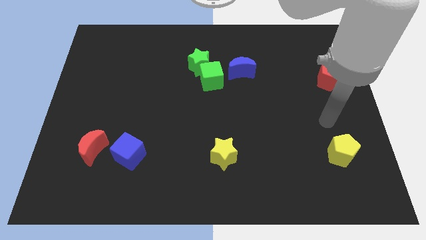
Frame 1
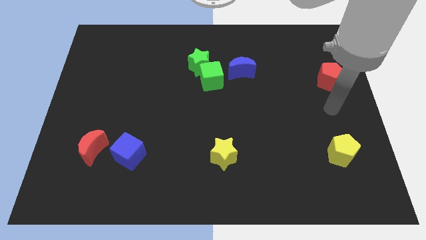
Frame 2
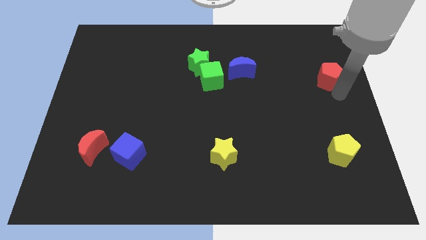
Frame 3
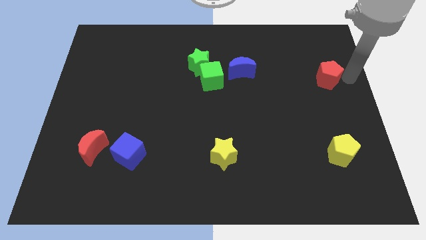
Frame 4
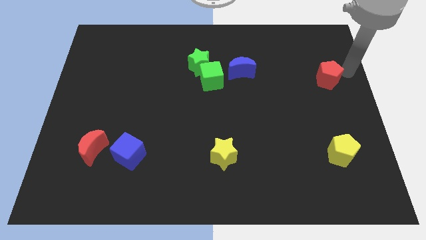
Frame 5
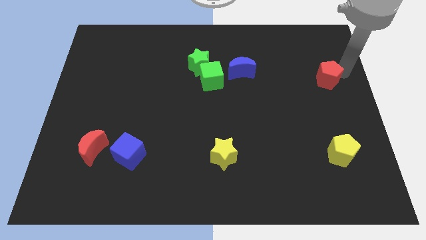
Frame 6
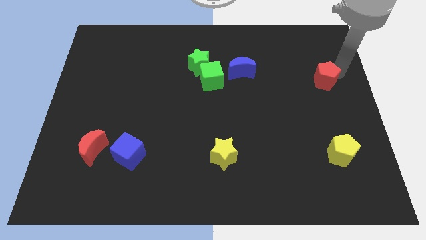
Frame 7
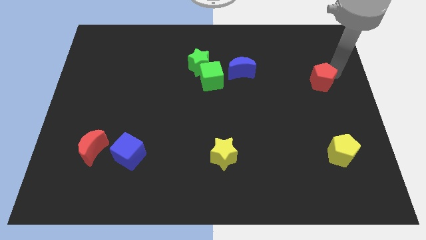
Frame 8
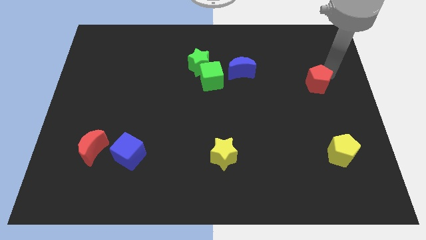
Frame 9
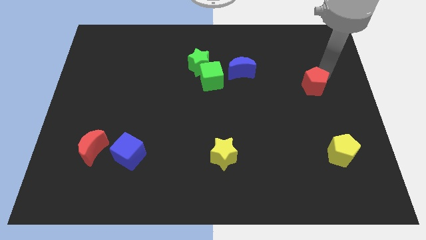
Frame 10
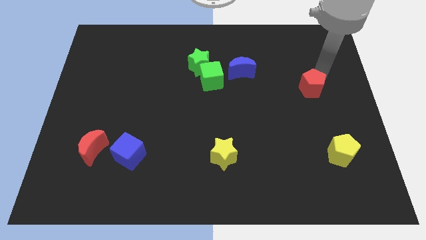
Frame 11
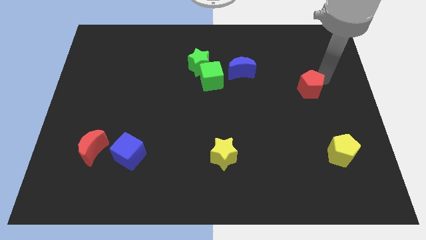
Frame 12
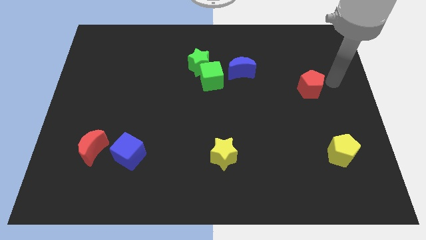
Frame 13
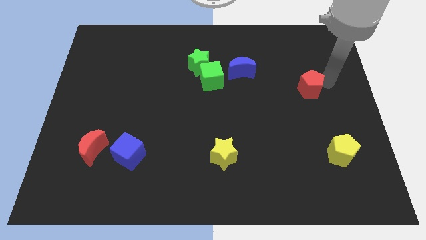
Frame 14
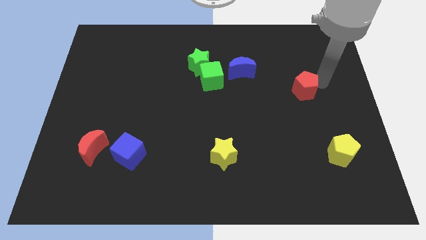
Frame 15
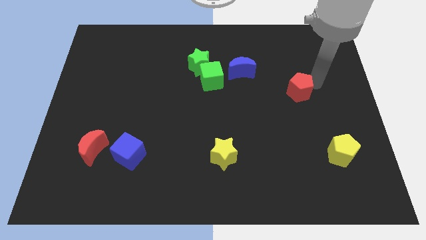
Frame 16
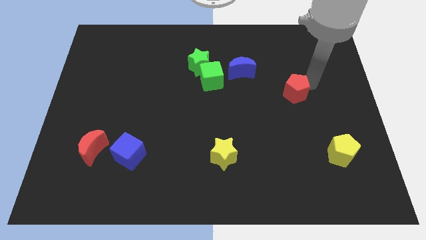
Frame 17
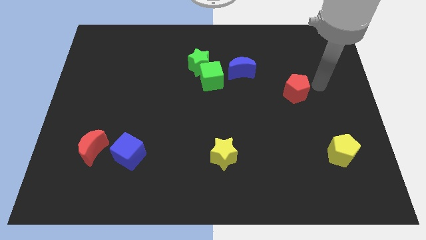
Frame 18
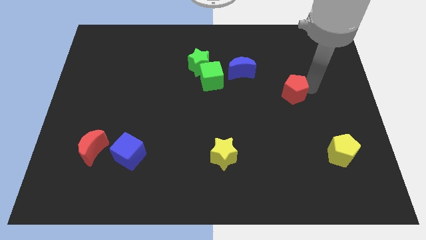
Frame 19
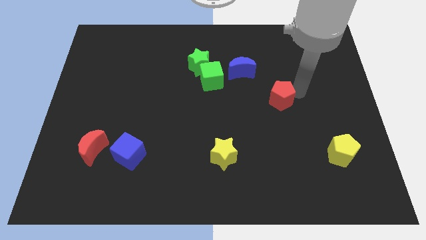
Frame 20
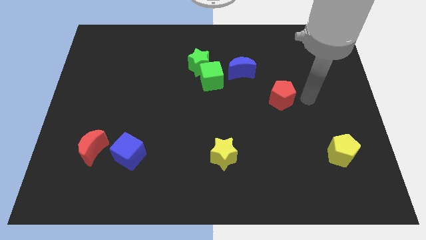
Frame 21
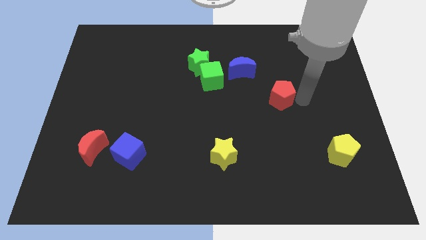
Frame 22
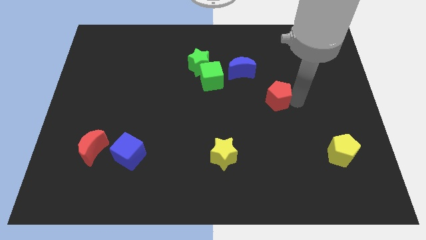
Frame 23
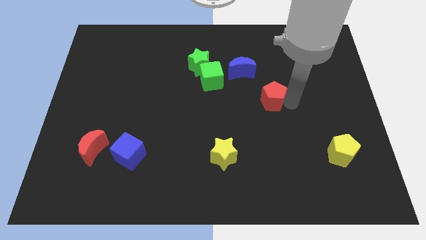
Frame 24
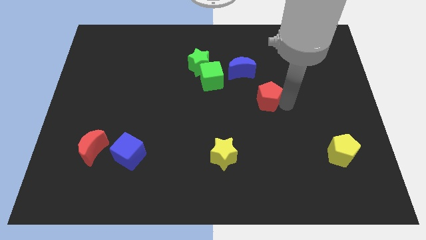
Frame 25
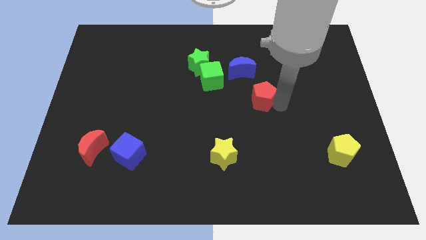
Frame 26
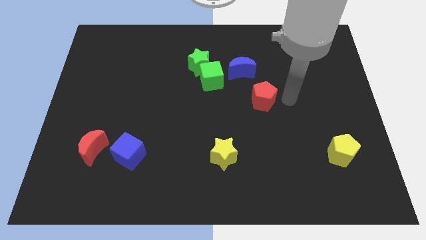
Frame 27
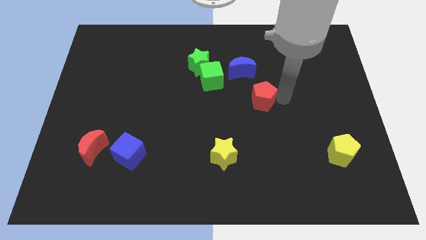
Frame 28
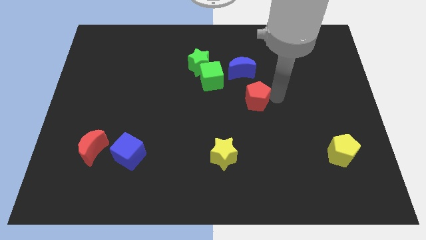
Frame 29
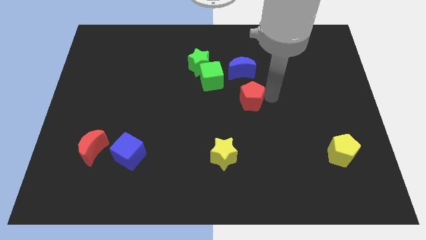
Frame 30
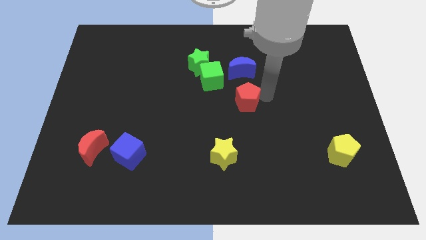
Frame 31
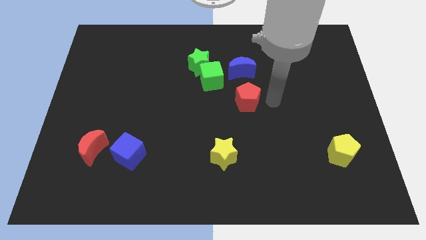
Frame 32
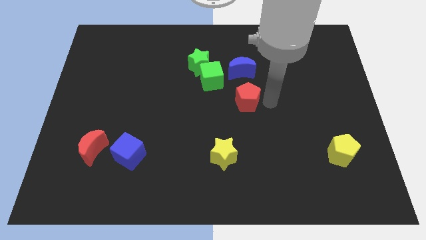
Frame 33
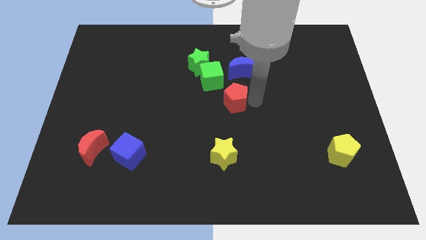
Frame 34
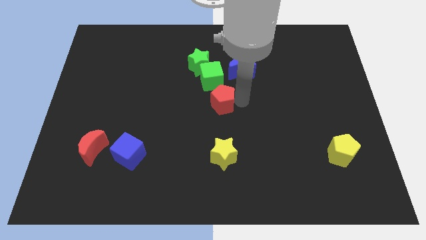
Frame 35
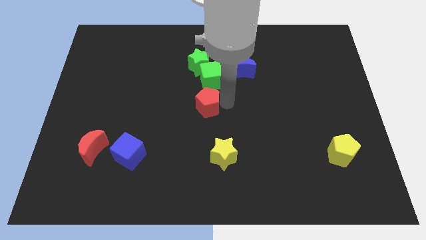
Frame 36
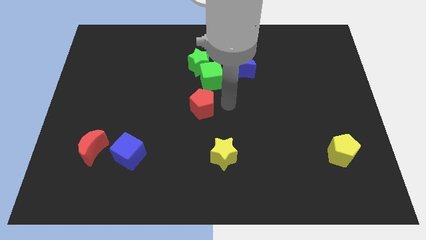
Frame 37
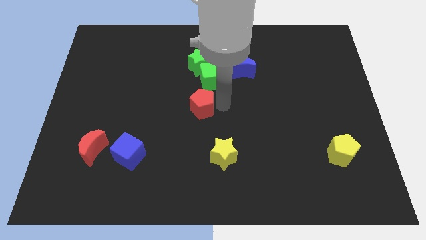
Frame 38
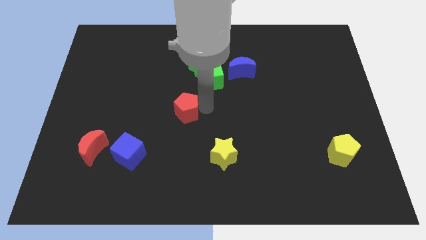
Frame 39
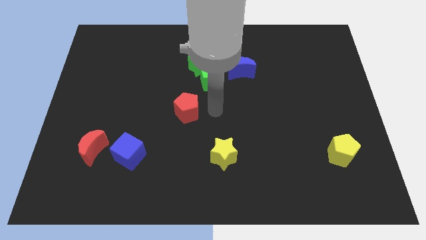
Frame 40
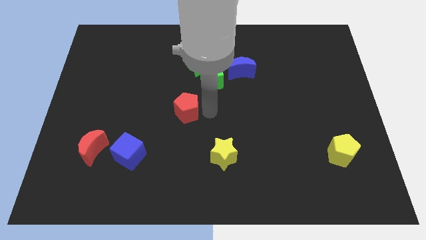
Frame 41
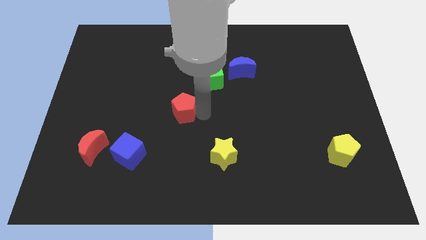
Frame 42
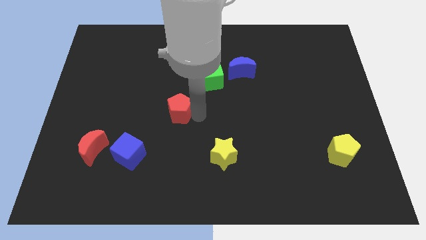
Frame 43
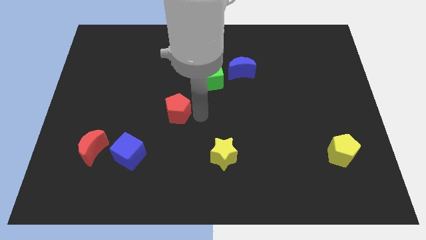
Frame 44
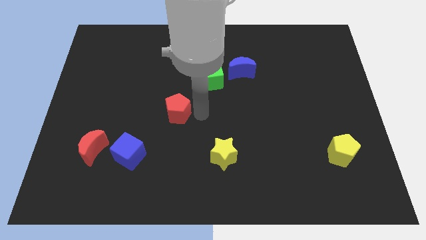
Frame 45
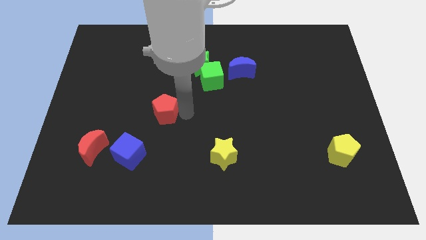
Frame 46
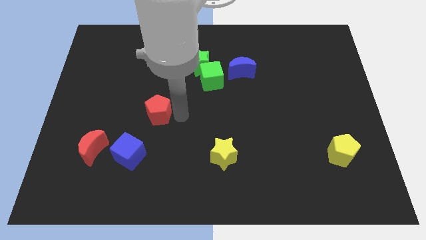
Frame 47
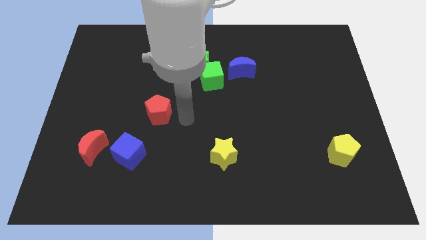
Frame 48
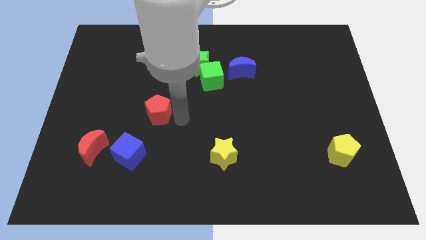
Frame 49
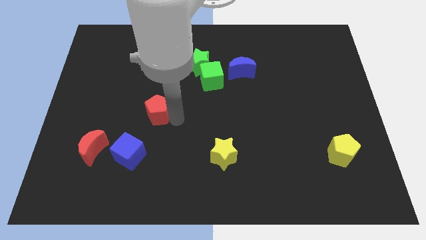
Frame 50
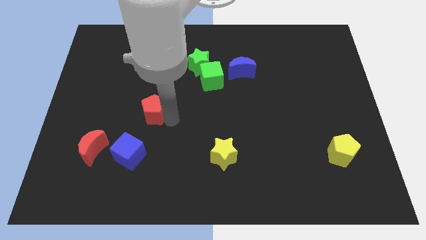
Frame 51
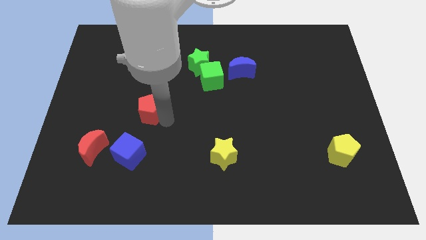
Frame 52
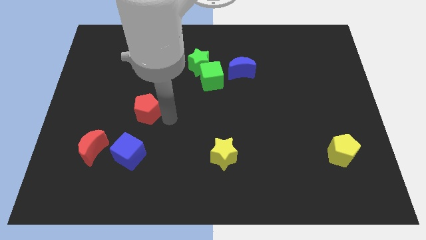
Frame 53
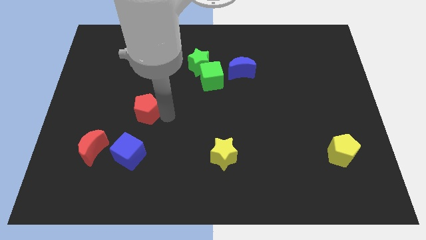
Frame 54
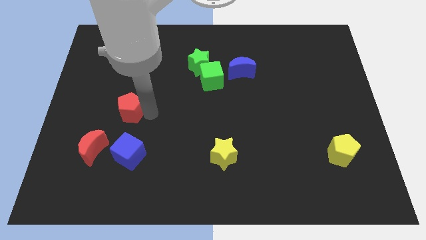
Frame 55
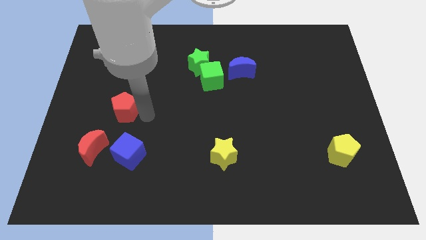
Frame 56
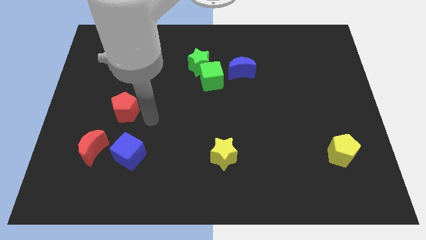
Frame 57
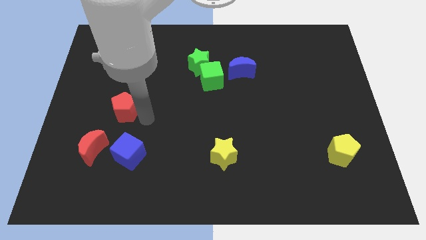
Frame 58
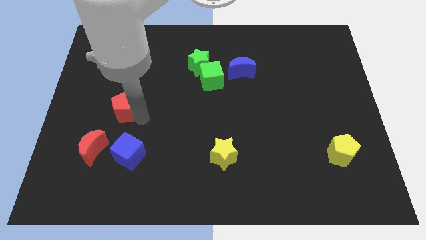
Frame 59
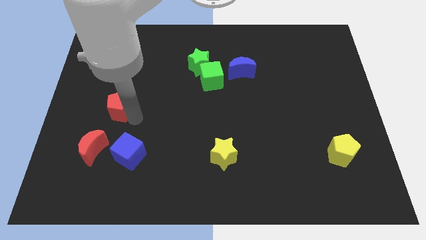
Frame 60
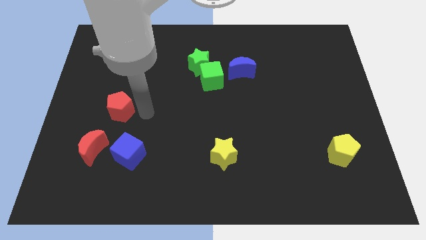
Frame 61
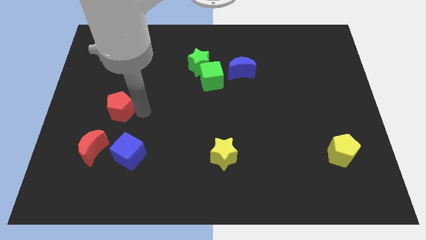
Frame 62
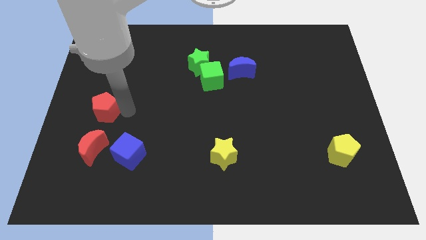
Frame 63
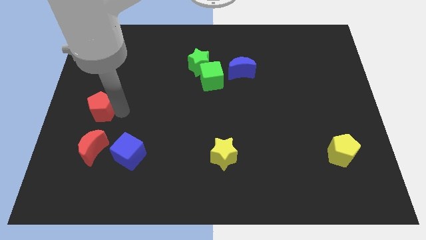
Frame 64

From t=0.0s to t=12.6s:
move the red pentagon to the left side of the board
